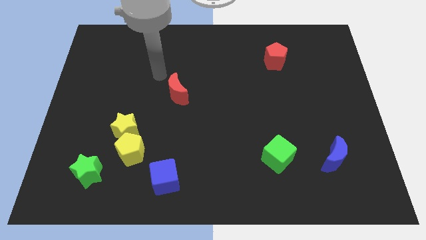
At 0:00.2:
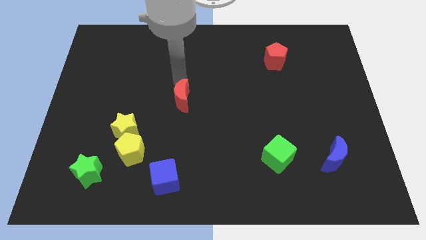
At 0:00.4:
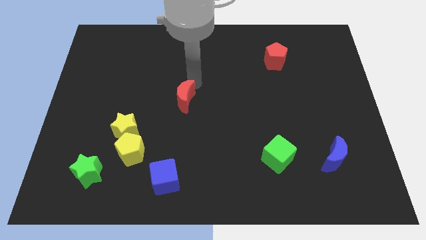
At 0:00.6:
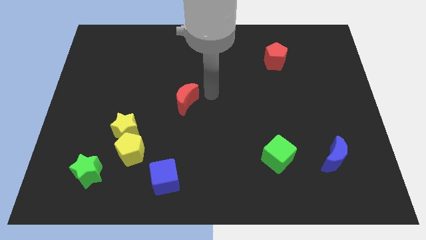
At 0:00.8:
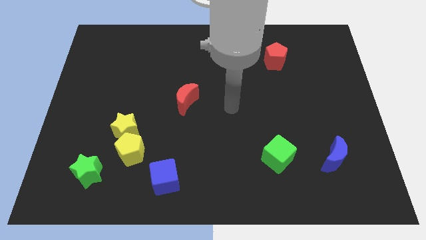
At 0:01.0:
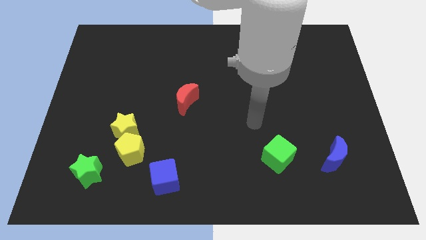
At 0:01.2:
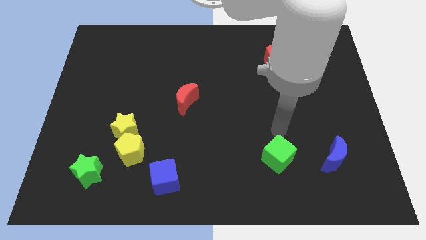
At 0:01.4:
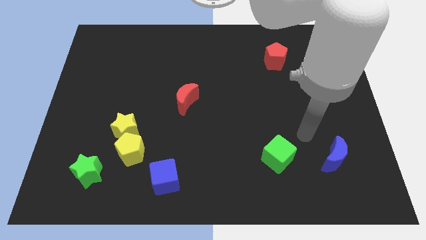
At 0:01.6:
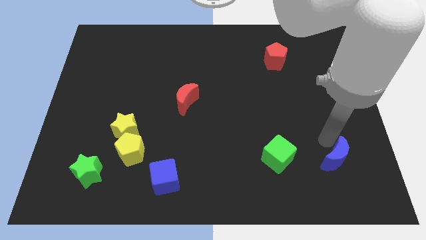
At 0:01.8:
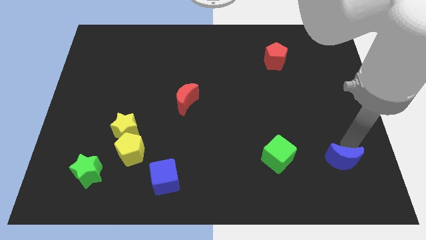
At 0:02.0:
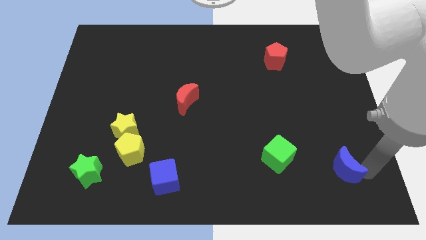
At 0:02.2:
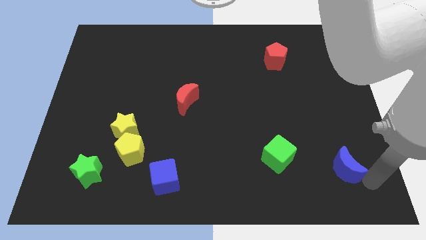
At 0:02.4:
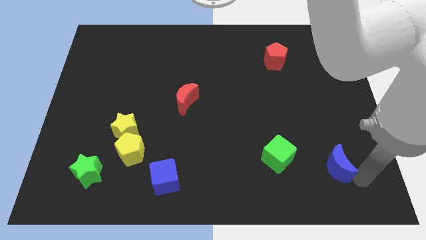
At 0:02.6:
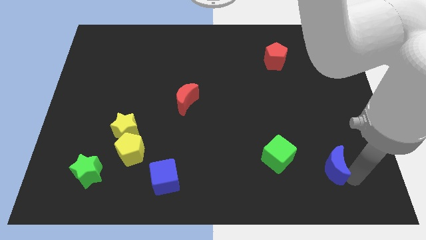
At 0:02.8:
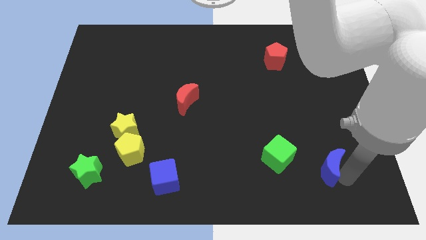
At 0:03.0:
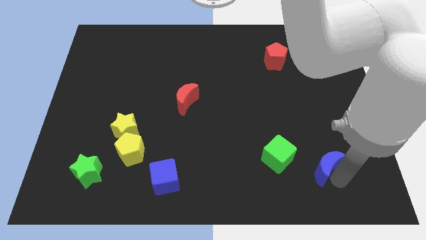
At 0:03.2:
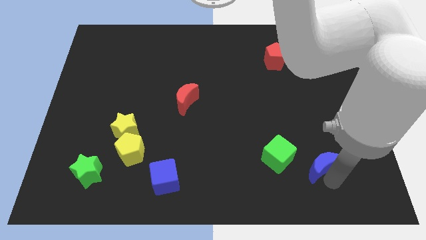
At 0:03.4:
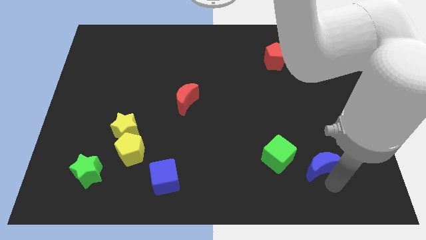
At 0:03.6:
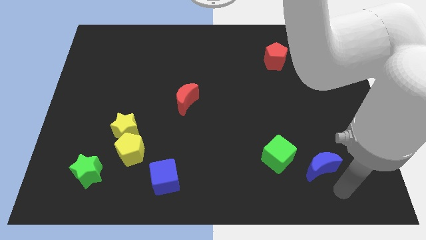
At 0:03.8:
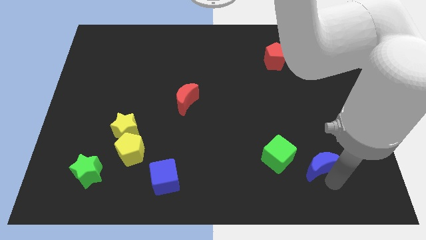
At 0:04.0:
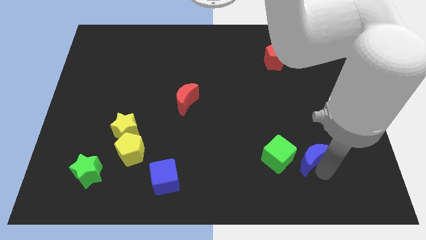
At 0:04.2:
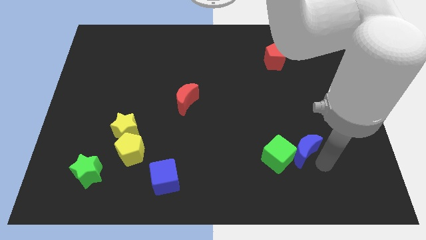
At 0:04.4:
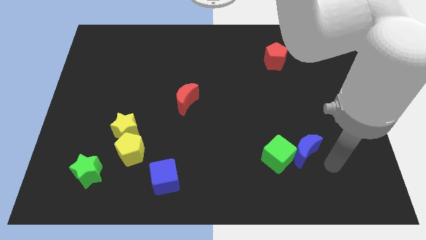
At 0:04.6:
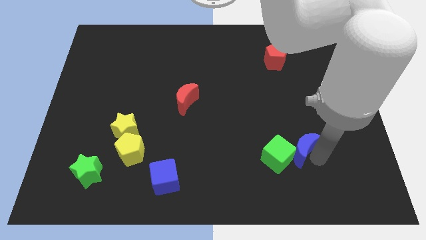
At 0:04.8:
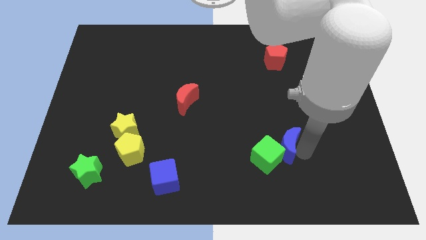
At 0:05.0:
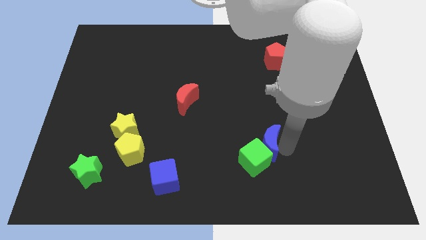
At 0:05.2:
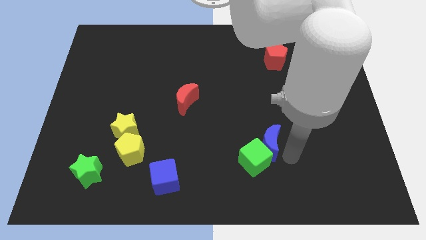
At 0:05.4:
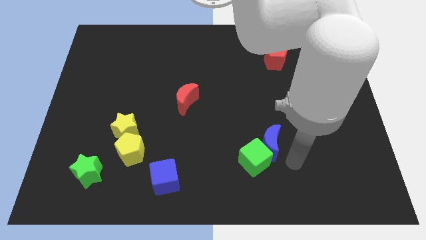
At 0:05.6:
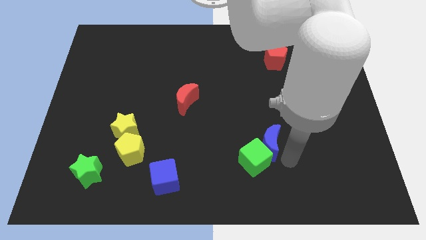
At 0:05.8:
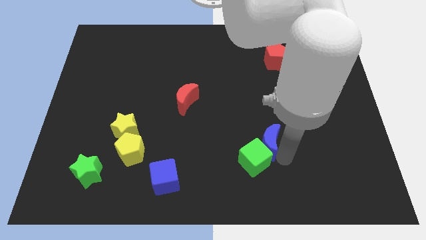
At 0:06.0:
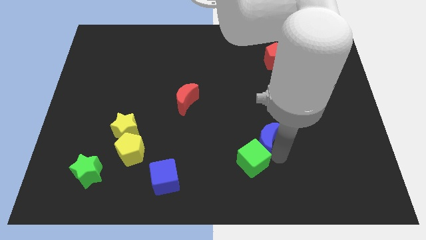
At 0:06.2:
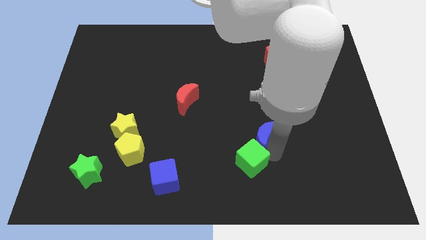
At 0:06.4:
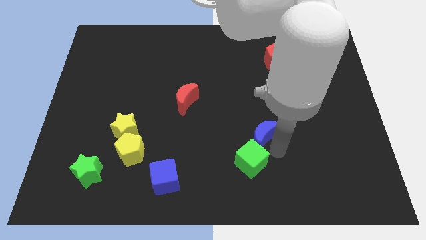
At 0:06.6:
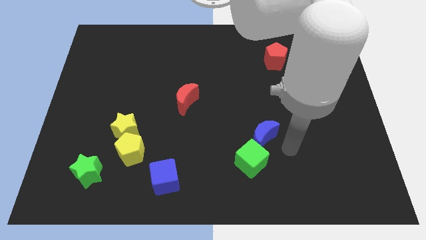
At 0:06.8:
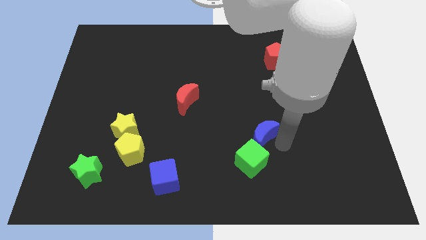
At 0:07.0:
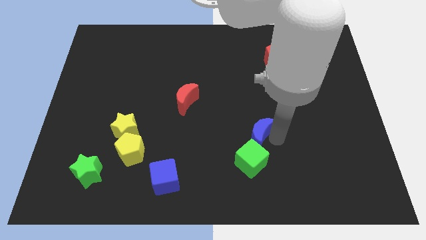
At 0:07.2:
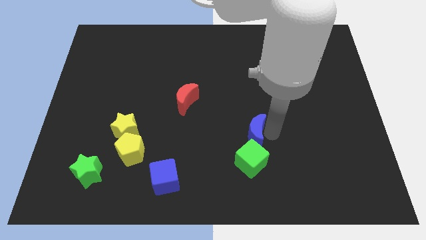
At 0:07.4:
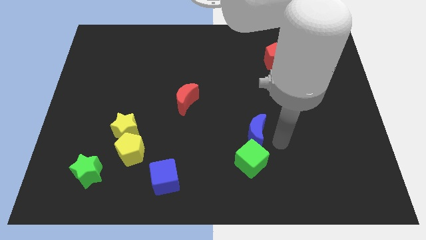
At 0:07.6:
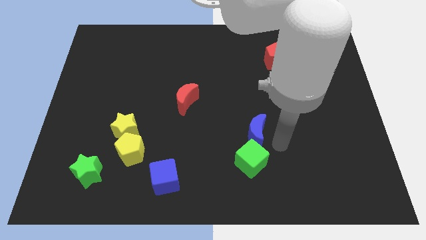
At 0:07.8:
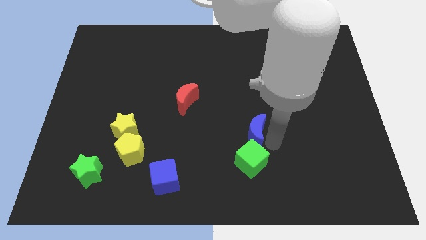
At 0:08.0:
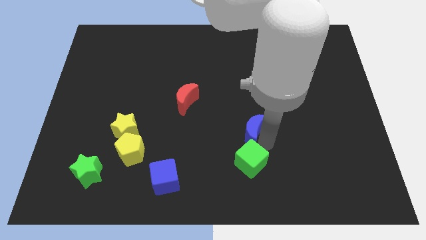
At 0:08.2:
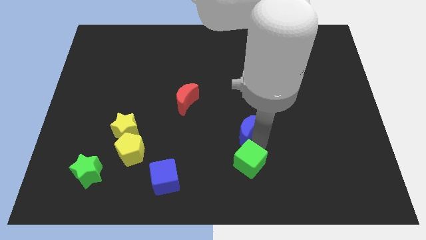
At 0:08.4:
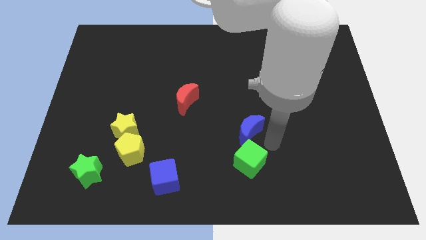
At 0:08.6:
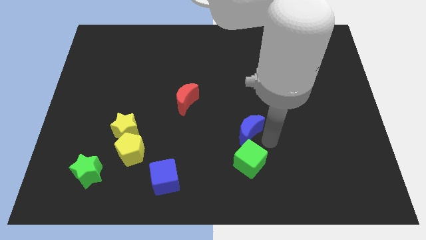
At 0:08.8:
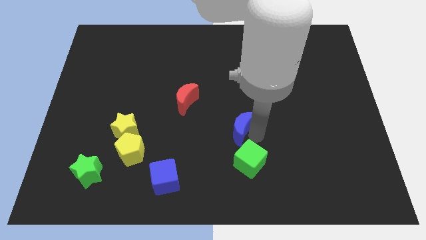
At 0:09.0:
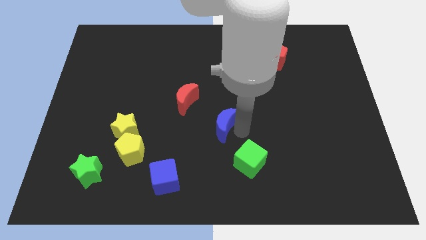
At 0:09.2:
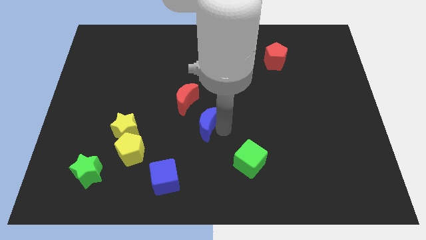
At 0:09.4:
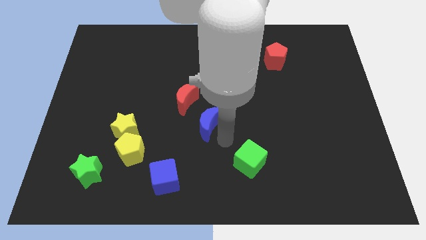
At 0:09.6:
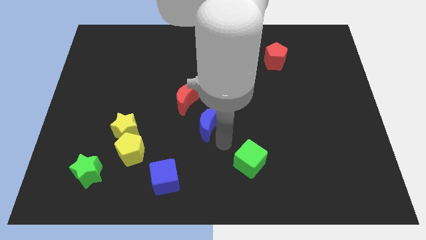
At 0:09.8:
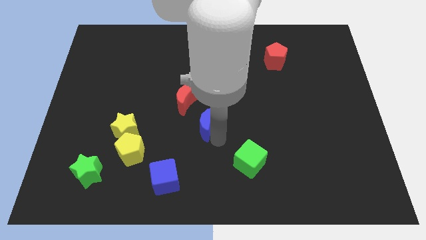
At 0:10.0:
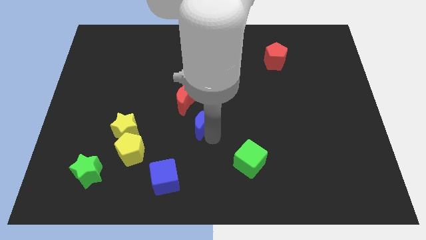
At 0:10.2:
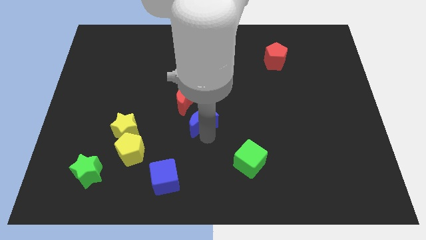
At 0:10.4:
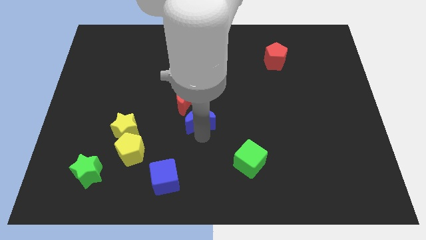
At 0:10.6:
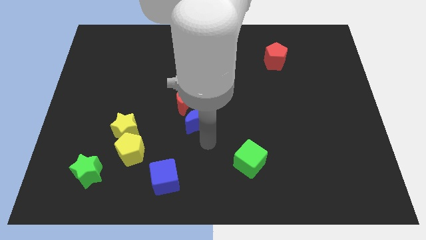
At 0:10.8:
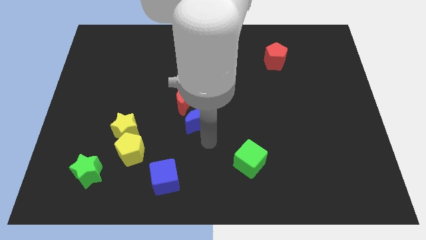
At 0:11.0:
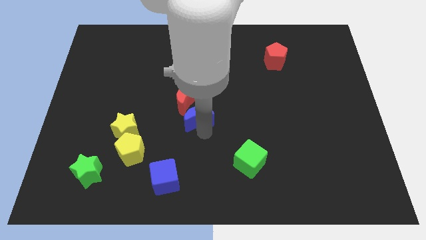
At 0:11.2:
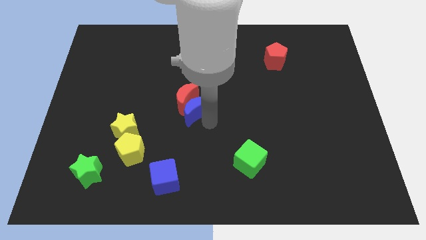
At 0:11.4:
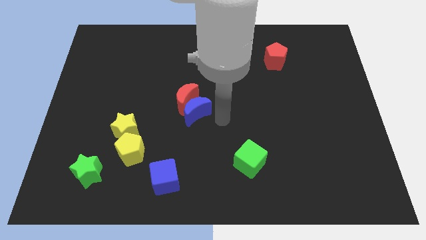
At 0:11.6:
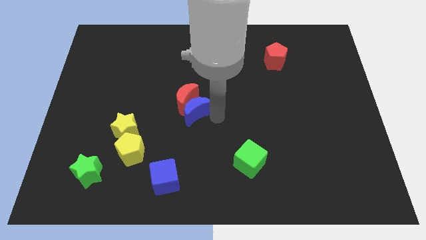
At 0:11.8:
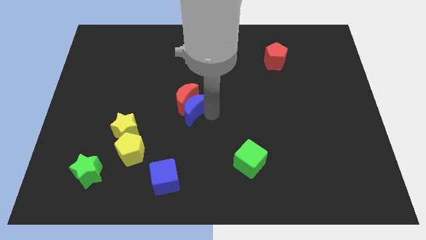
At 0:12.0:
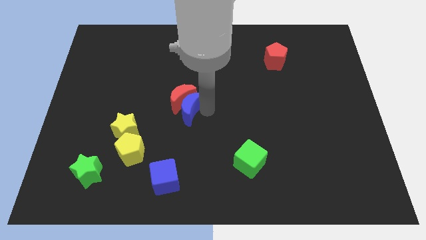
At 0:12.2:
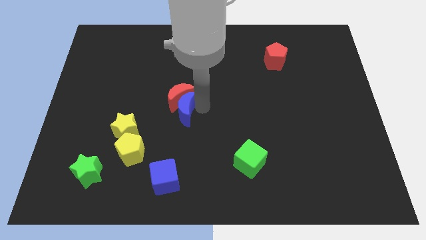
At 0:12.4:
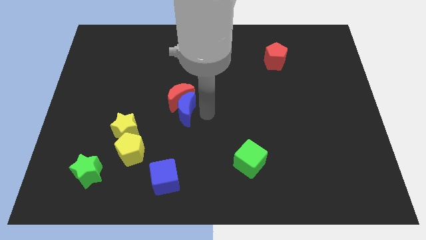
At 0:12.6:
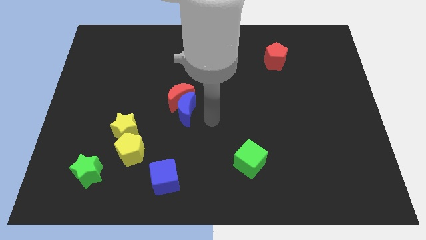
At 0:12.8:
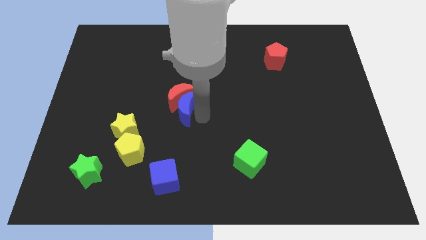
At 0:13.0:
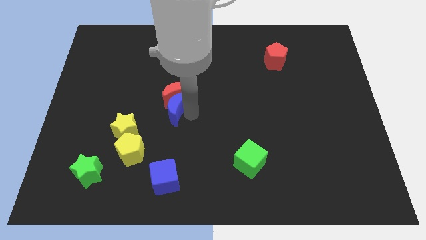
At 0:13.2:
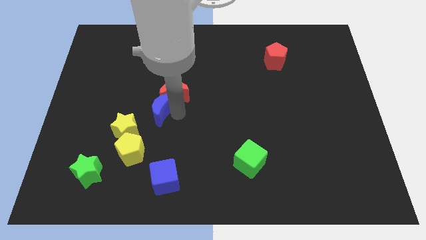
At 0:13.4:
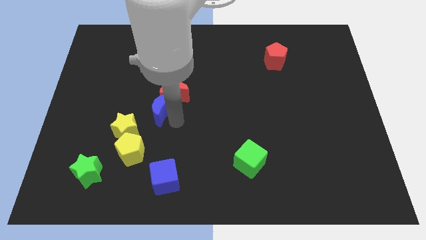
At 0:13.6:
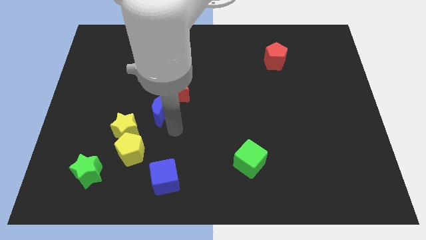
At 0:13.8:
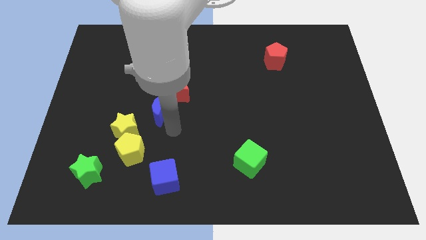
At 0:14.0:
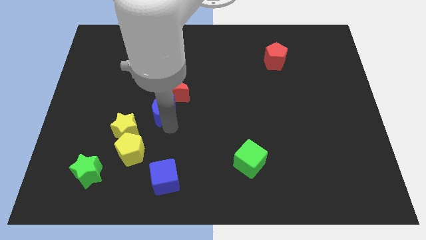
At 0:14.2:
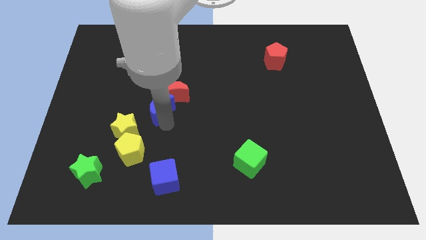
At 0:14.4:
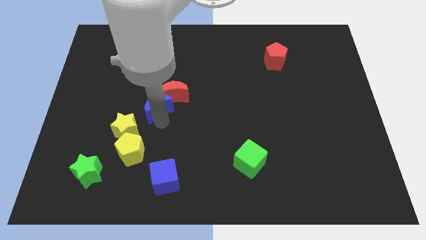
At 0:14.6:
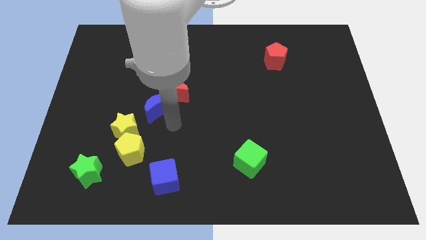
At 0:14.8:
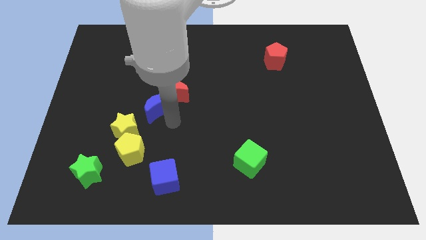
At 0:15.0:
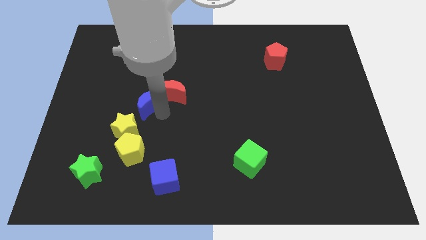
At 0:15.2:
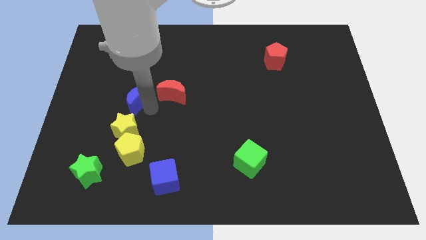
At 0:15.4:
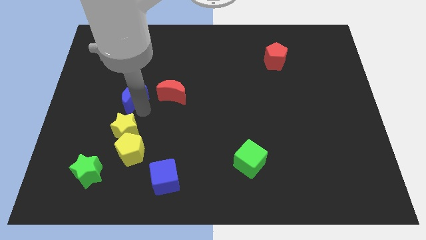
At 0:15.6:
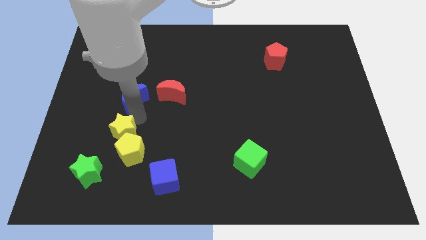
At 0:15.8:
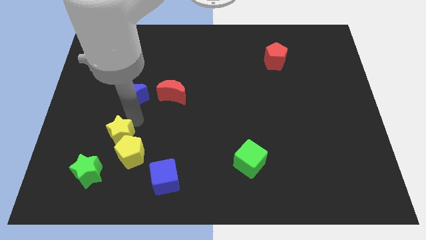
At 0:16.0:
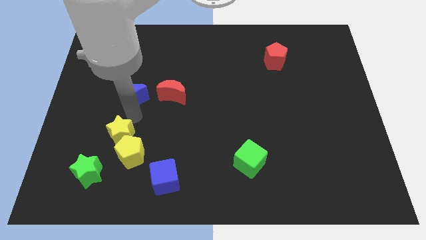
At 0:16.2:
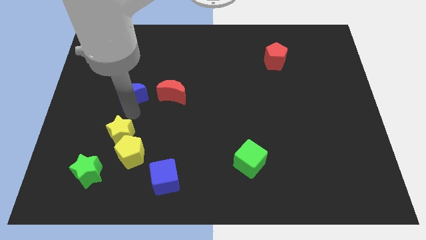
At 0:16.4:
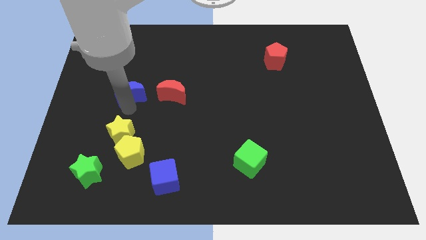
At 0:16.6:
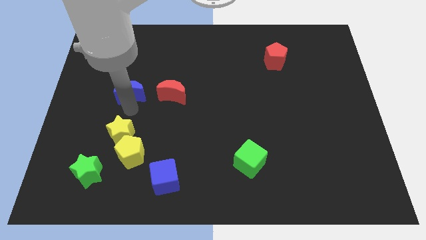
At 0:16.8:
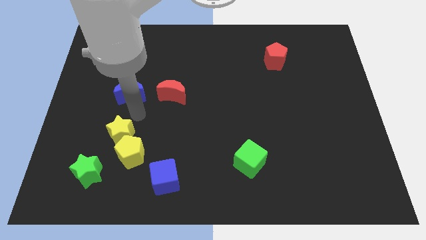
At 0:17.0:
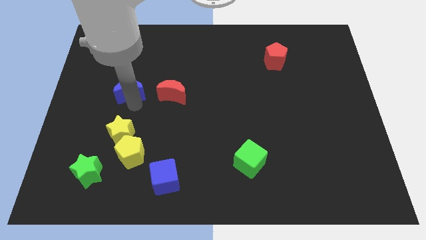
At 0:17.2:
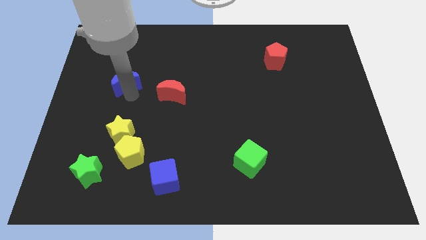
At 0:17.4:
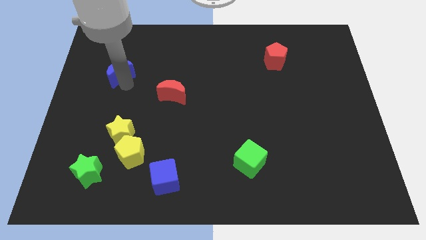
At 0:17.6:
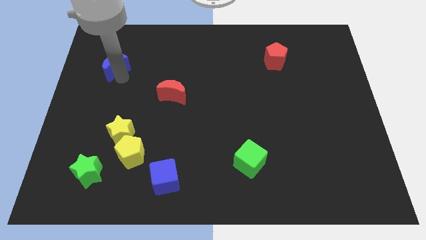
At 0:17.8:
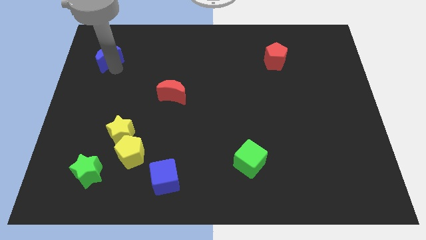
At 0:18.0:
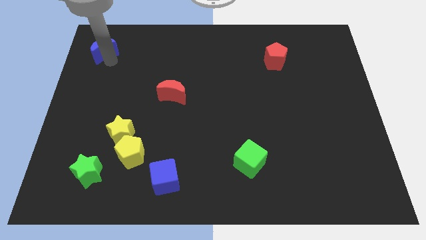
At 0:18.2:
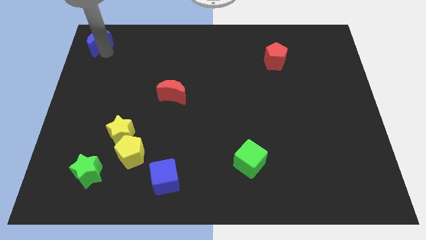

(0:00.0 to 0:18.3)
move the blue moon to the top left
